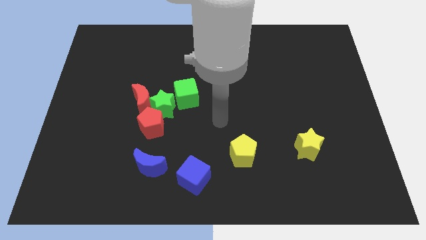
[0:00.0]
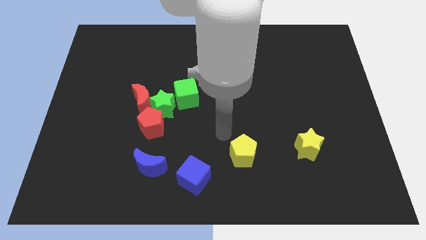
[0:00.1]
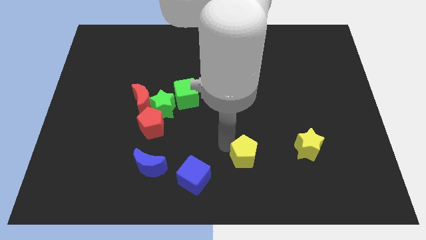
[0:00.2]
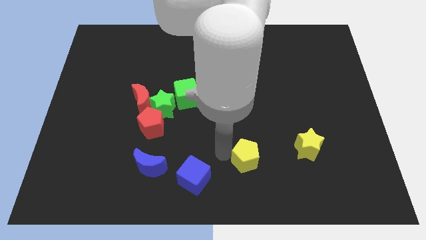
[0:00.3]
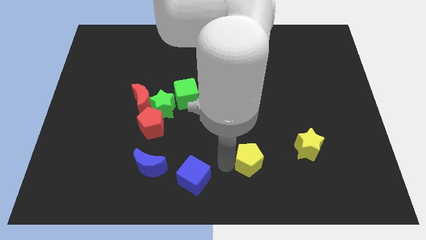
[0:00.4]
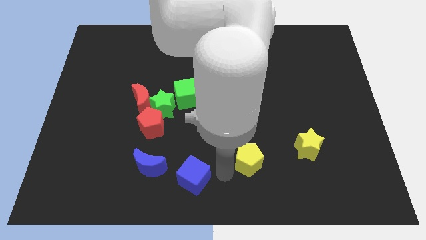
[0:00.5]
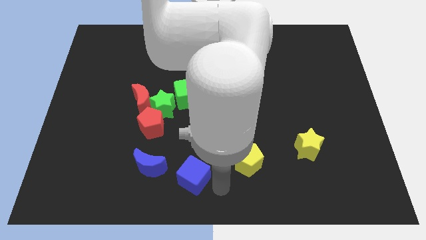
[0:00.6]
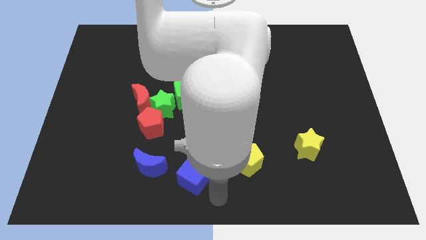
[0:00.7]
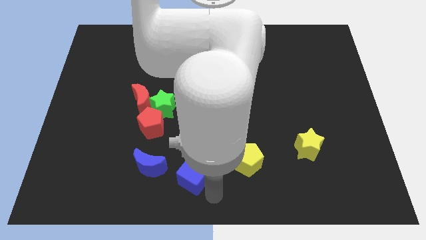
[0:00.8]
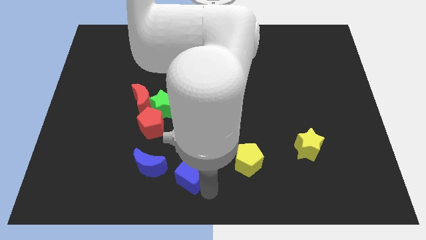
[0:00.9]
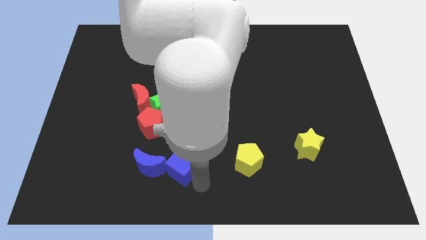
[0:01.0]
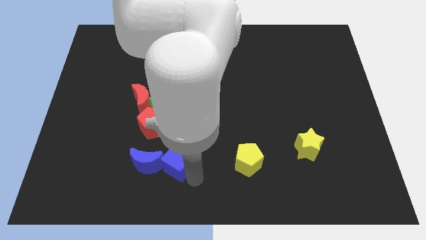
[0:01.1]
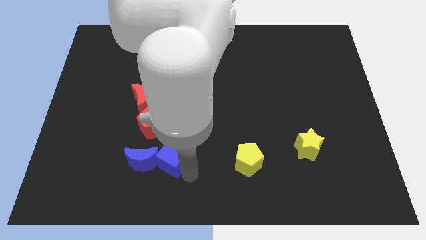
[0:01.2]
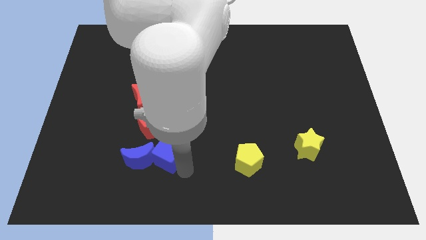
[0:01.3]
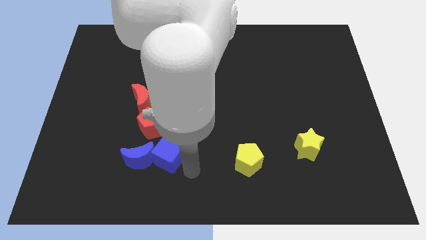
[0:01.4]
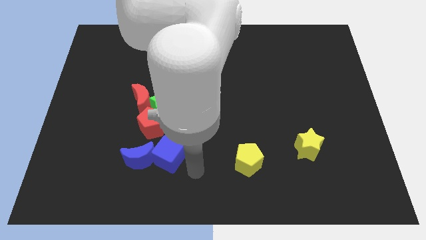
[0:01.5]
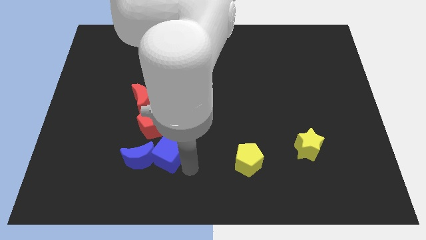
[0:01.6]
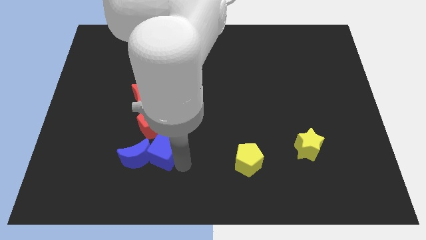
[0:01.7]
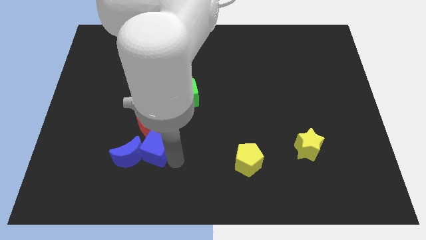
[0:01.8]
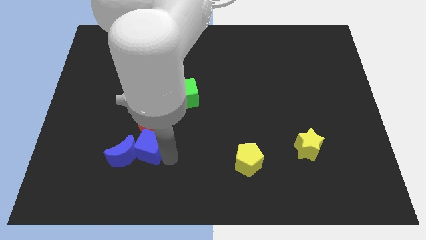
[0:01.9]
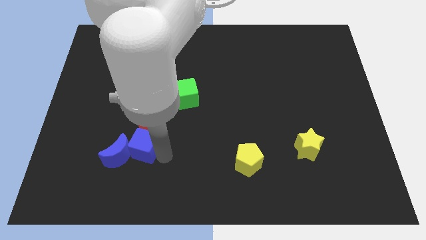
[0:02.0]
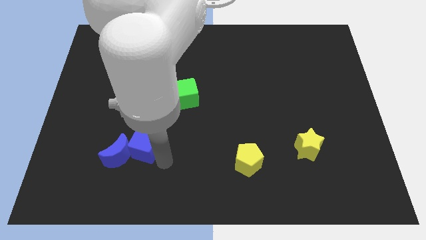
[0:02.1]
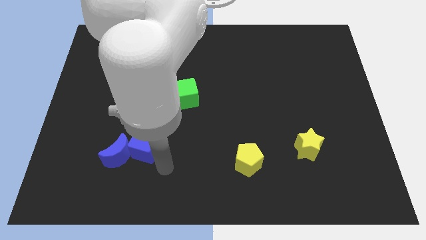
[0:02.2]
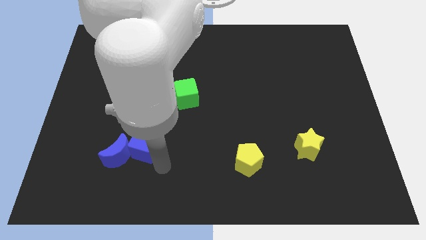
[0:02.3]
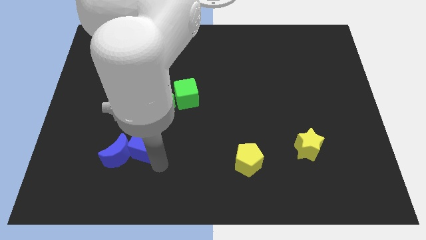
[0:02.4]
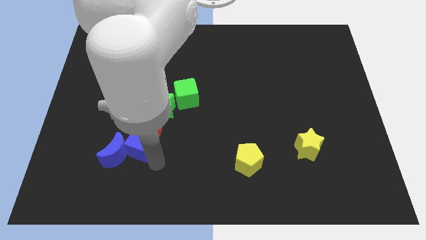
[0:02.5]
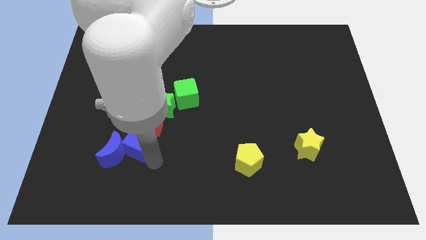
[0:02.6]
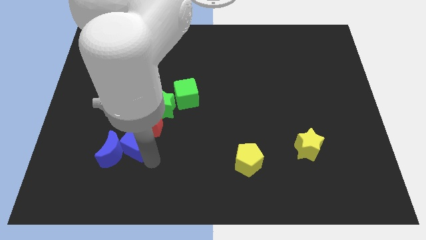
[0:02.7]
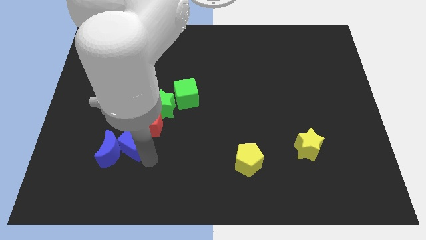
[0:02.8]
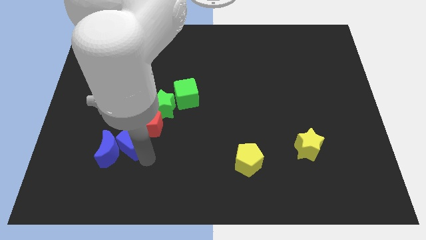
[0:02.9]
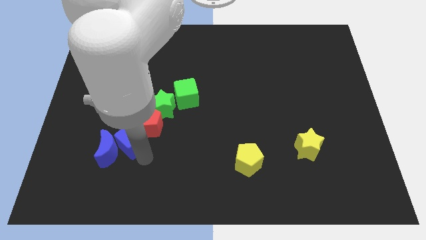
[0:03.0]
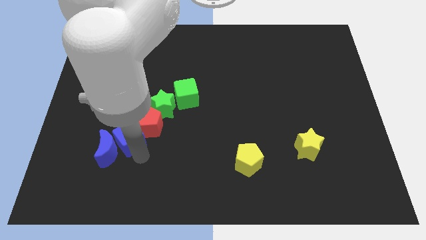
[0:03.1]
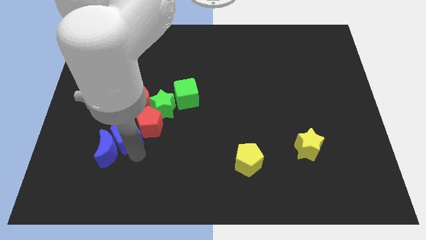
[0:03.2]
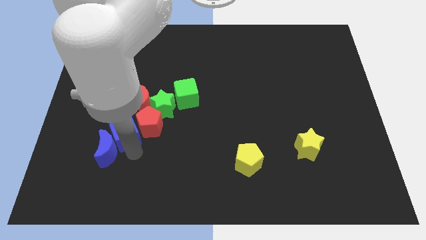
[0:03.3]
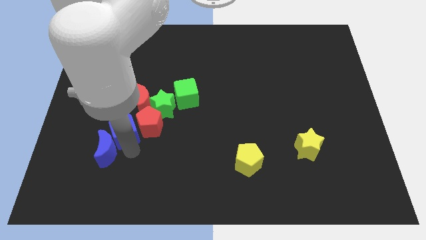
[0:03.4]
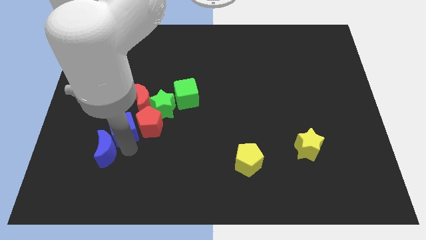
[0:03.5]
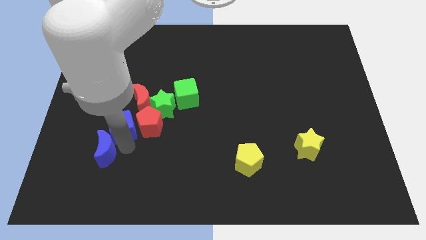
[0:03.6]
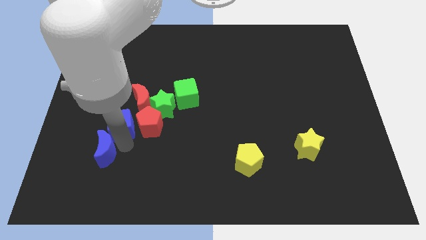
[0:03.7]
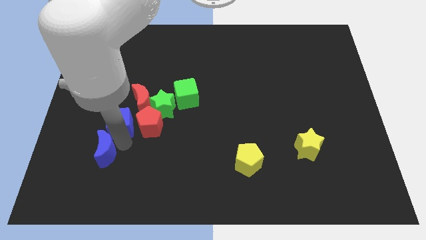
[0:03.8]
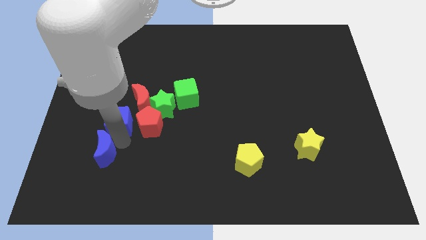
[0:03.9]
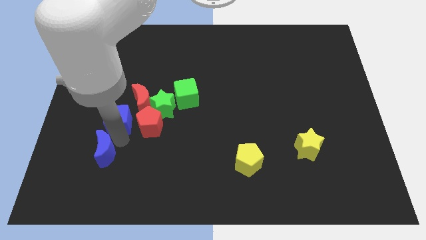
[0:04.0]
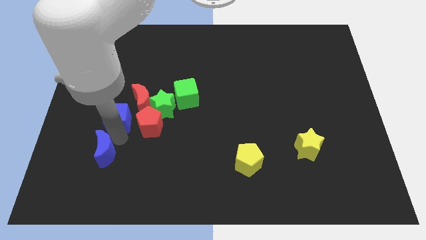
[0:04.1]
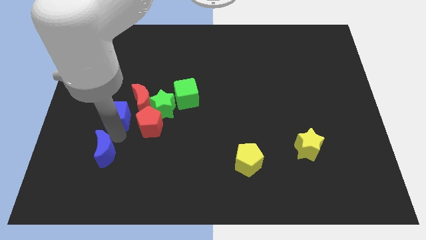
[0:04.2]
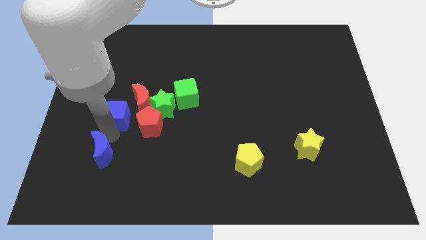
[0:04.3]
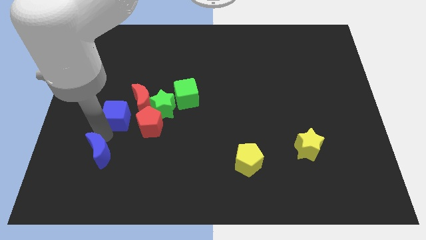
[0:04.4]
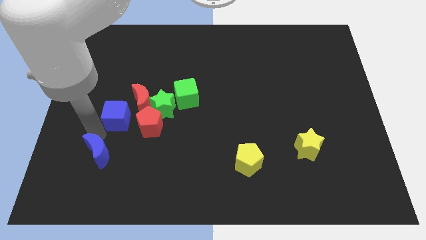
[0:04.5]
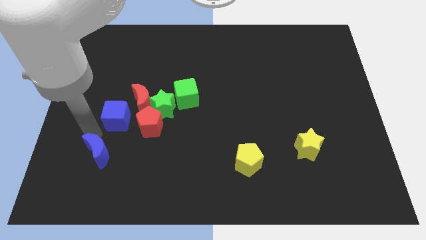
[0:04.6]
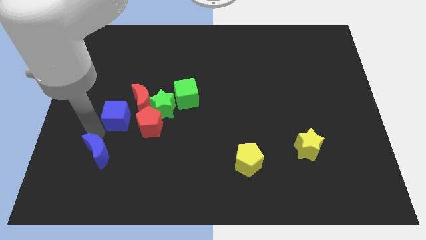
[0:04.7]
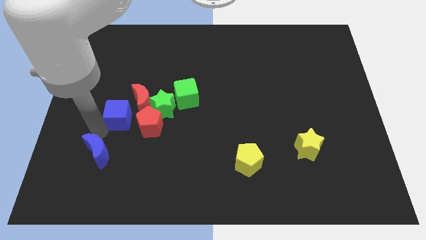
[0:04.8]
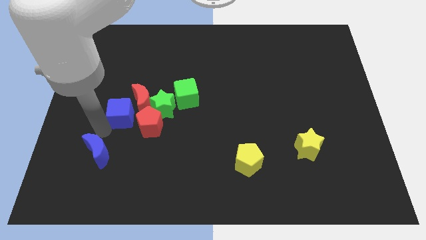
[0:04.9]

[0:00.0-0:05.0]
move the blue cube towards the red moon

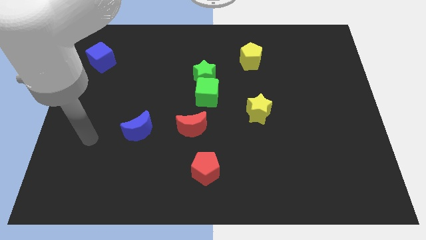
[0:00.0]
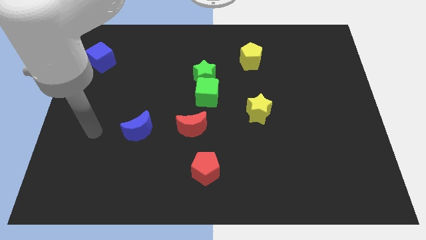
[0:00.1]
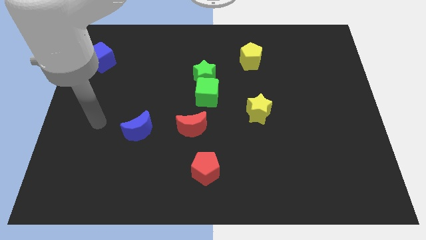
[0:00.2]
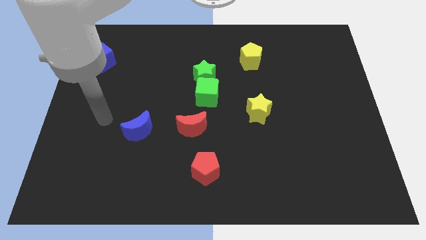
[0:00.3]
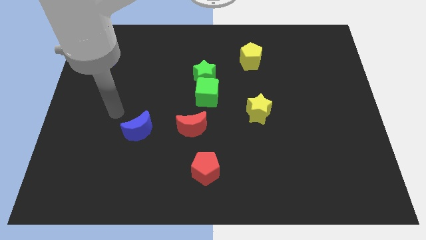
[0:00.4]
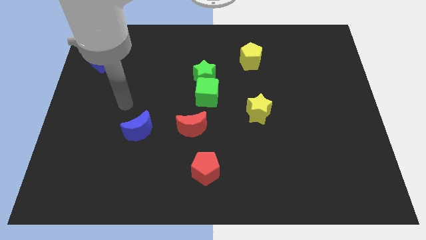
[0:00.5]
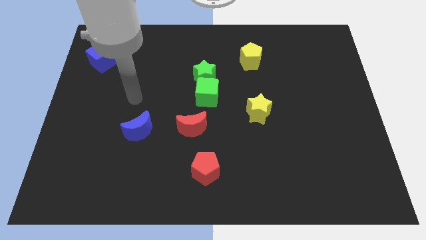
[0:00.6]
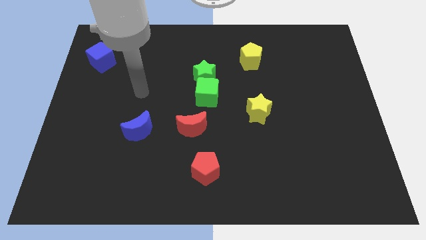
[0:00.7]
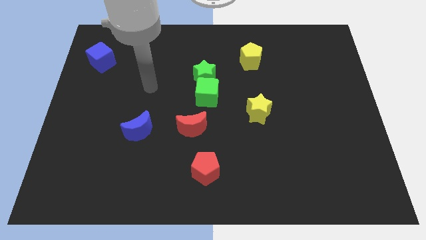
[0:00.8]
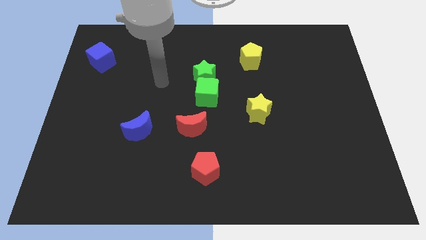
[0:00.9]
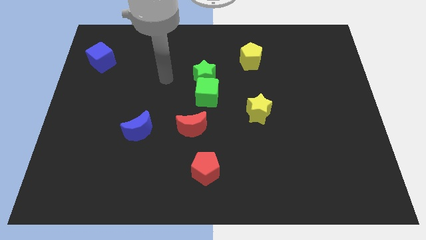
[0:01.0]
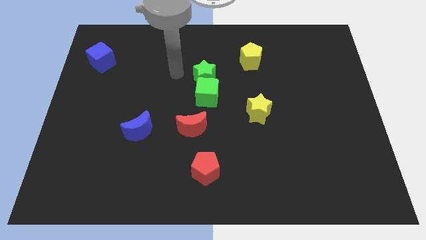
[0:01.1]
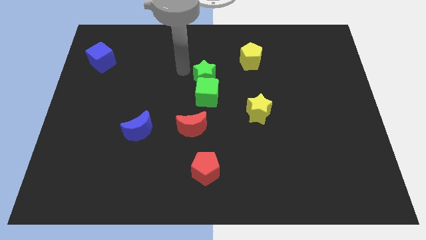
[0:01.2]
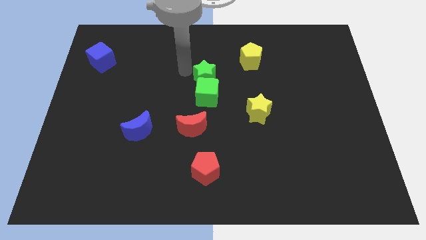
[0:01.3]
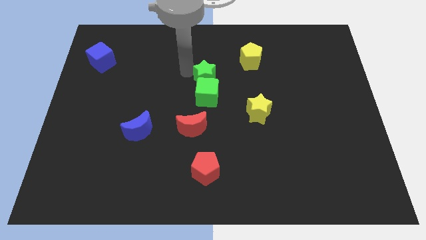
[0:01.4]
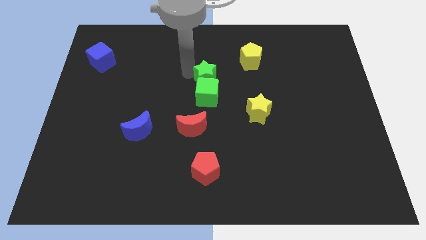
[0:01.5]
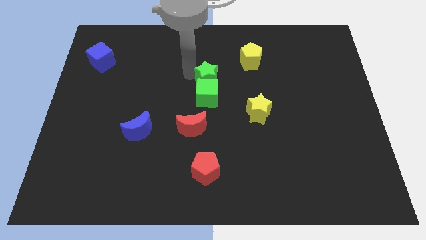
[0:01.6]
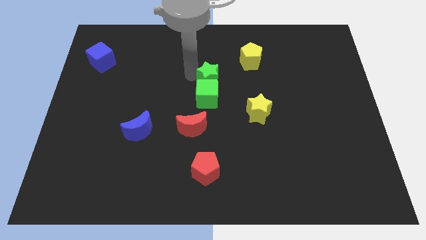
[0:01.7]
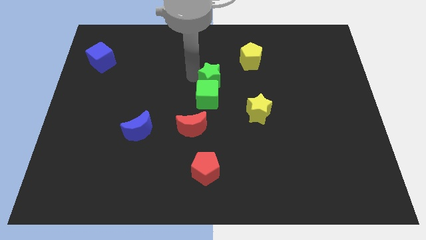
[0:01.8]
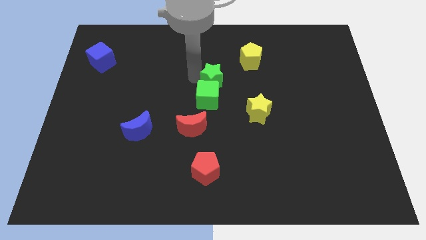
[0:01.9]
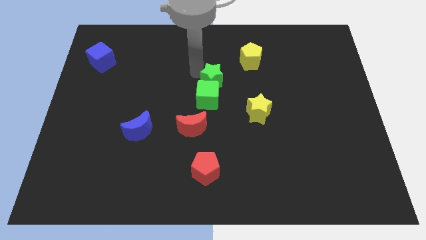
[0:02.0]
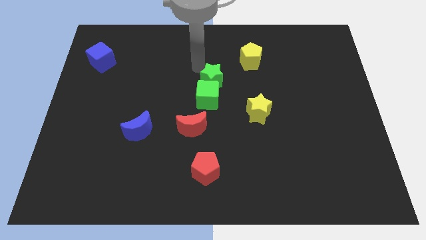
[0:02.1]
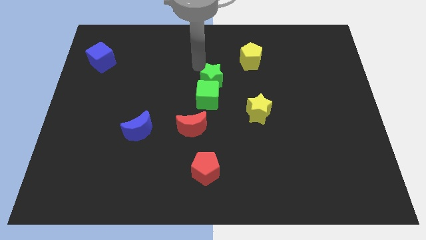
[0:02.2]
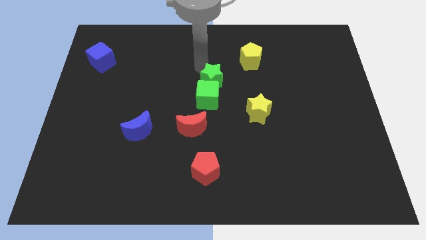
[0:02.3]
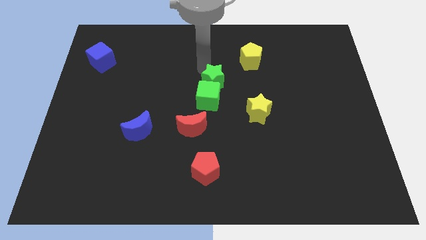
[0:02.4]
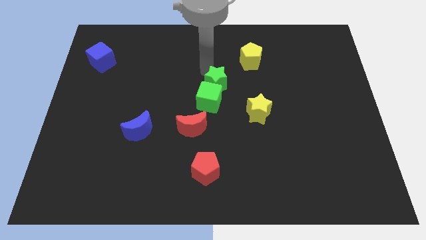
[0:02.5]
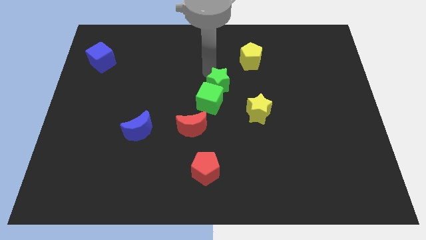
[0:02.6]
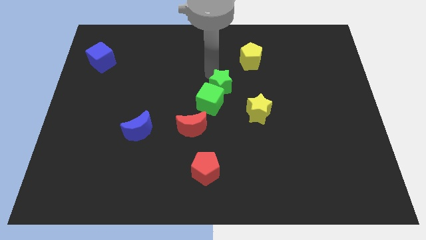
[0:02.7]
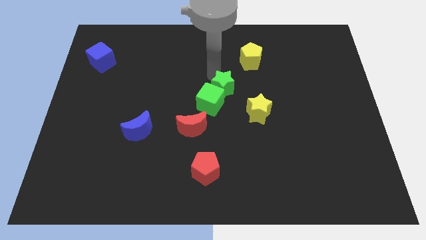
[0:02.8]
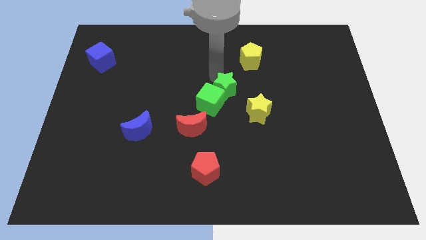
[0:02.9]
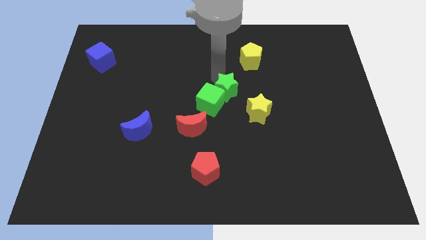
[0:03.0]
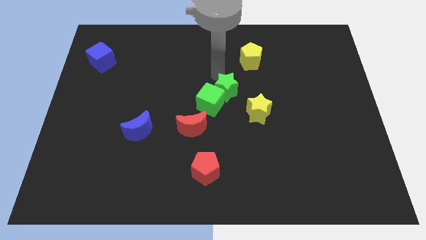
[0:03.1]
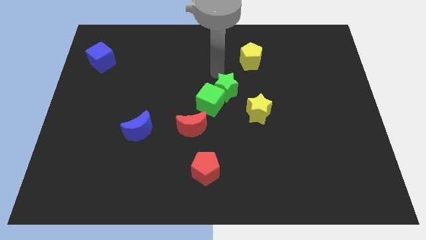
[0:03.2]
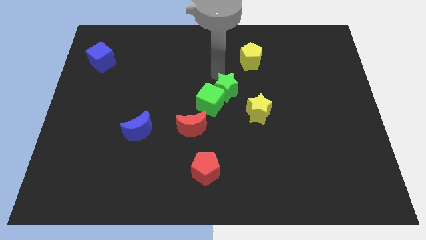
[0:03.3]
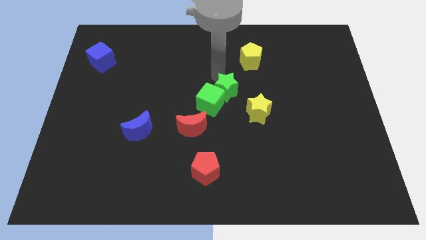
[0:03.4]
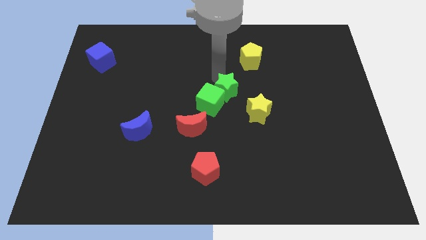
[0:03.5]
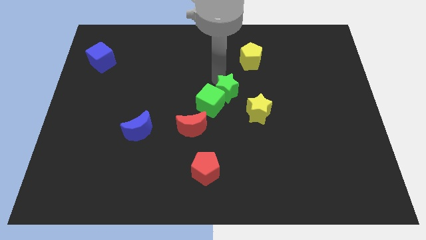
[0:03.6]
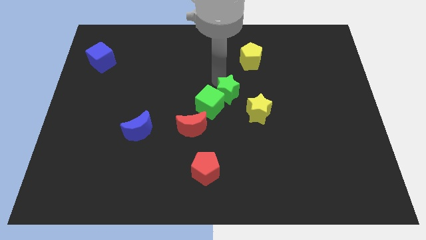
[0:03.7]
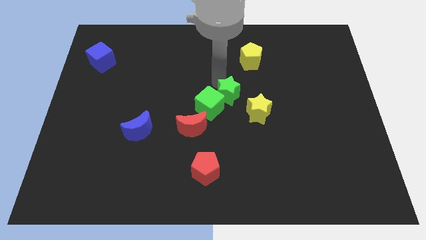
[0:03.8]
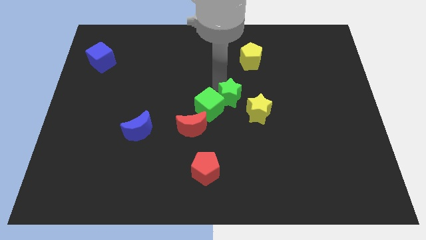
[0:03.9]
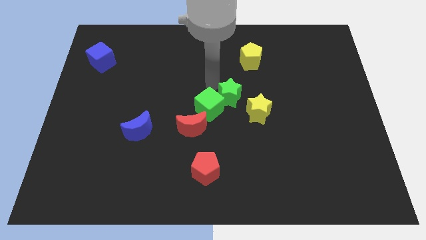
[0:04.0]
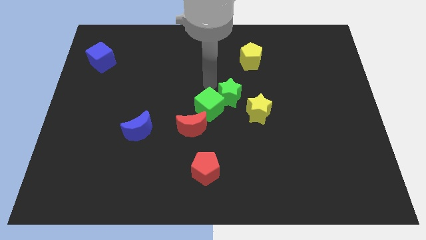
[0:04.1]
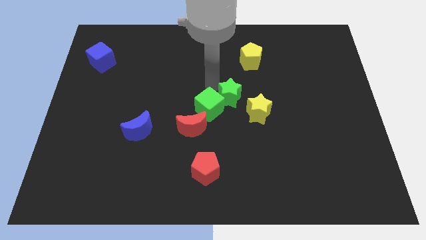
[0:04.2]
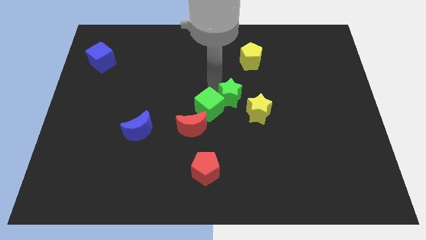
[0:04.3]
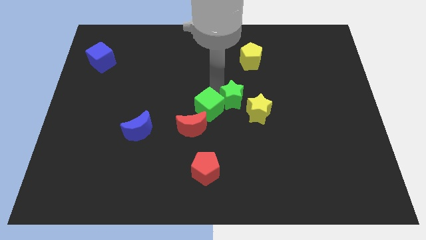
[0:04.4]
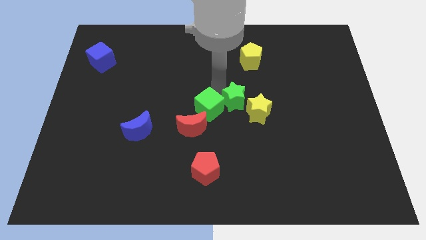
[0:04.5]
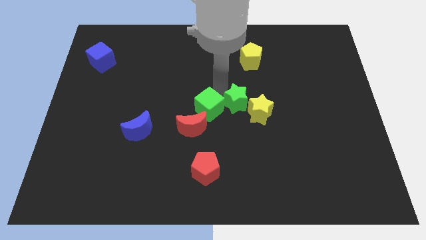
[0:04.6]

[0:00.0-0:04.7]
put the green star next to the yellow star
